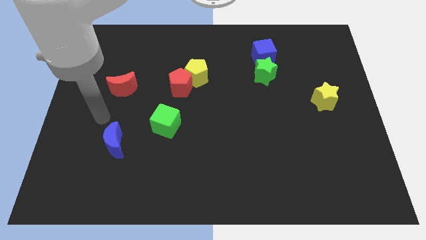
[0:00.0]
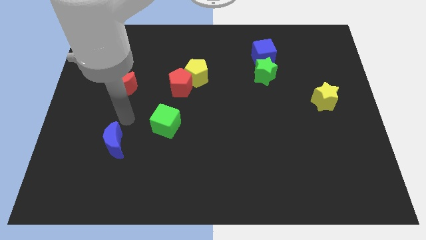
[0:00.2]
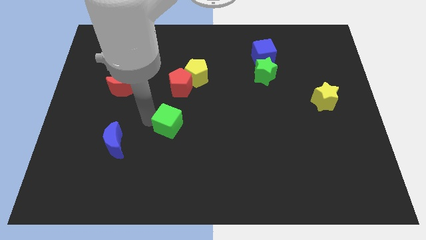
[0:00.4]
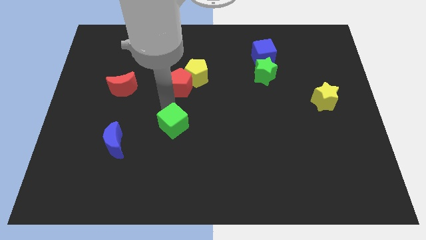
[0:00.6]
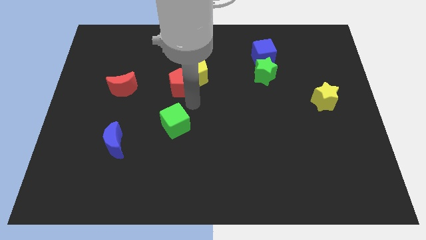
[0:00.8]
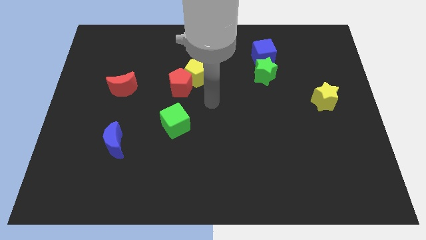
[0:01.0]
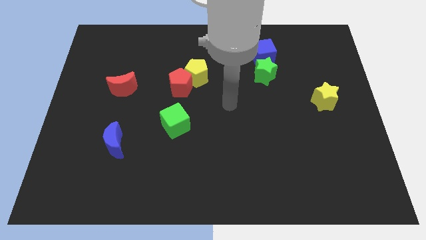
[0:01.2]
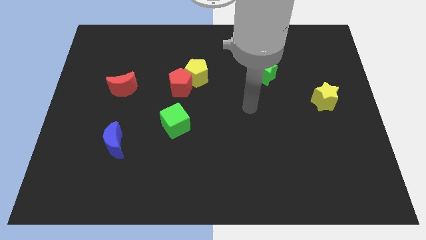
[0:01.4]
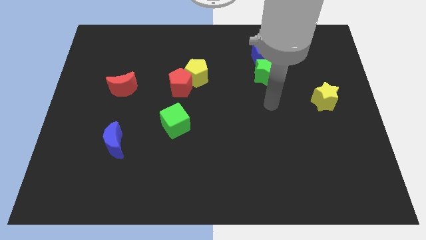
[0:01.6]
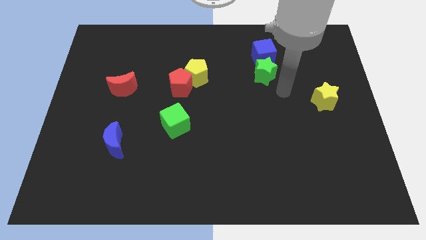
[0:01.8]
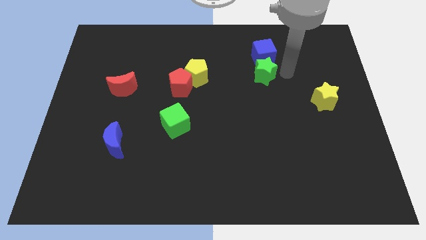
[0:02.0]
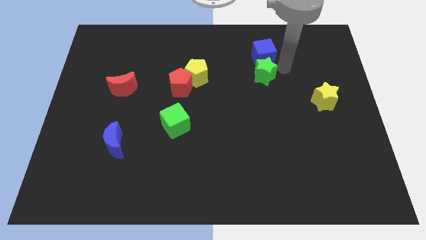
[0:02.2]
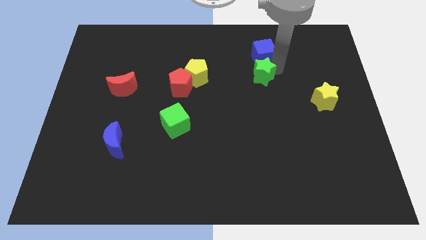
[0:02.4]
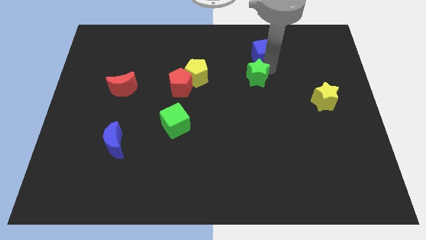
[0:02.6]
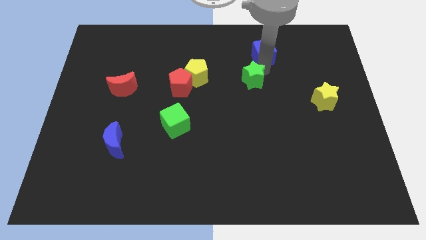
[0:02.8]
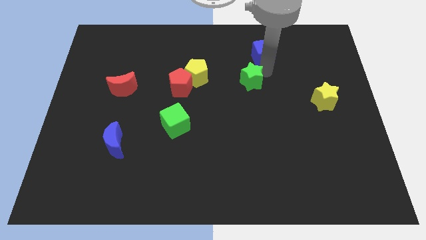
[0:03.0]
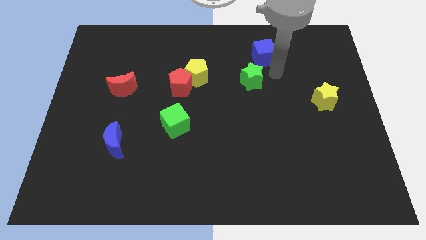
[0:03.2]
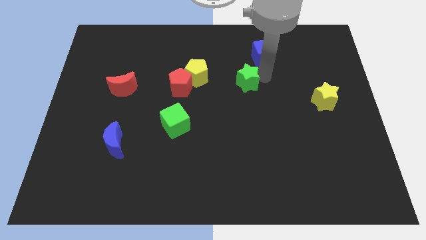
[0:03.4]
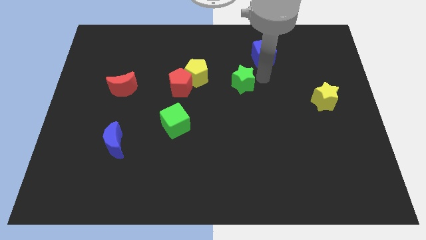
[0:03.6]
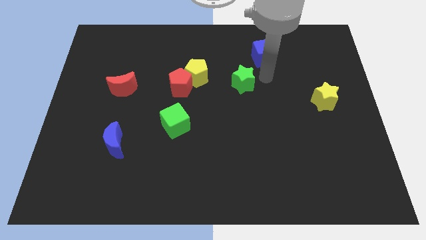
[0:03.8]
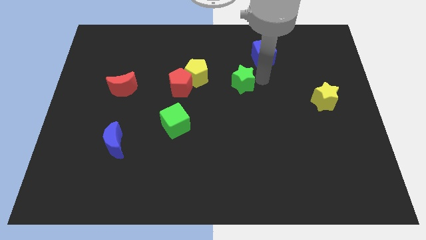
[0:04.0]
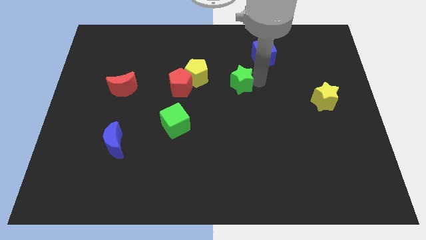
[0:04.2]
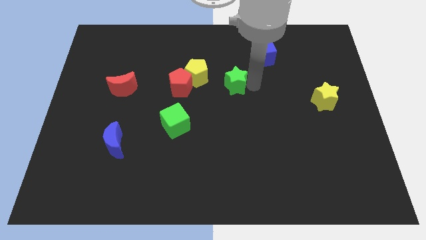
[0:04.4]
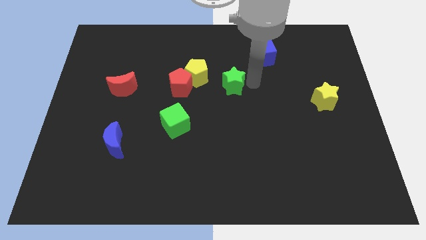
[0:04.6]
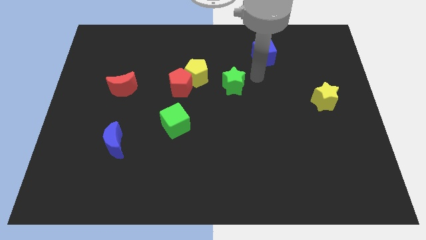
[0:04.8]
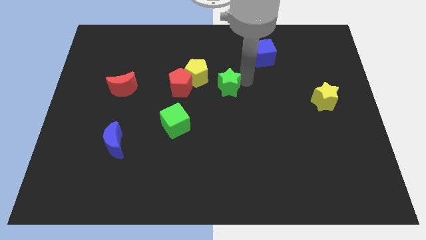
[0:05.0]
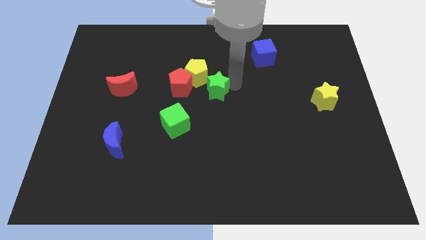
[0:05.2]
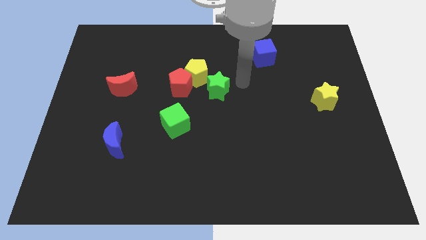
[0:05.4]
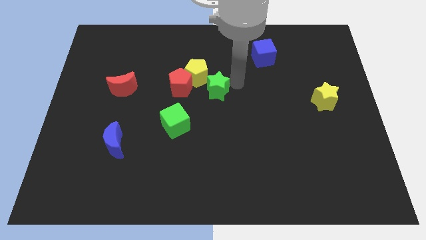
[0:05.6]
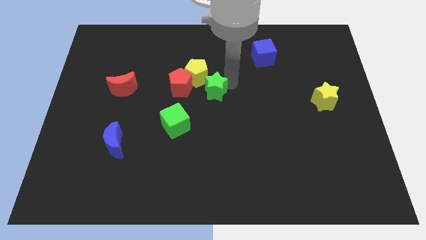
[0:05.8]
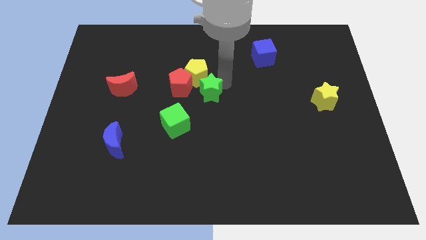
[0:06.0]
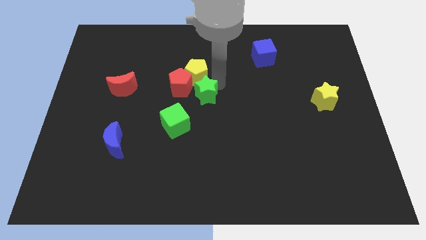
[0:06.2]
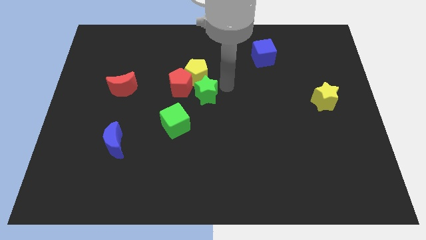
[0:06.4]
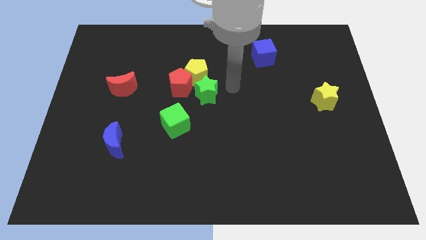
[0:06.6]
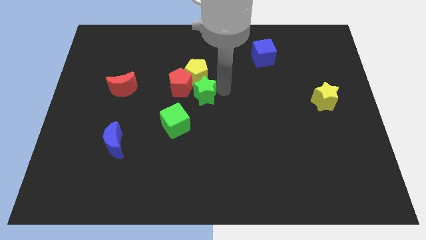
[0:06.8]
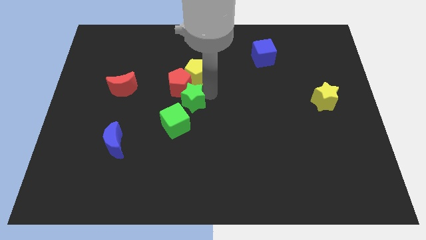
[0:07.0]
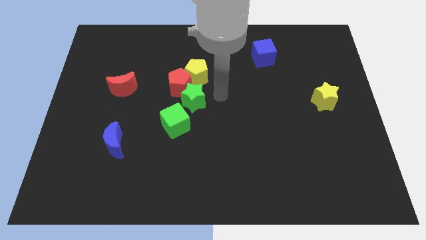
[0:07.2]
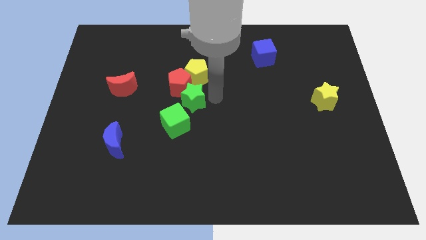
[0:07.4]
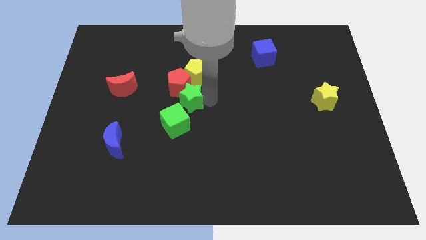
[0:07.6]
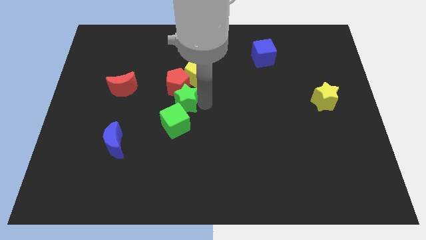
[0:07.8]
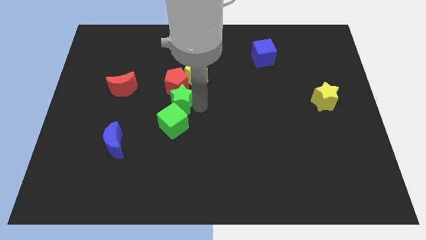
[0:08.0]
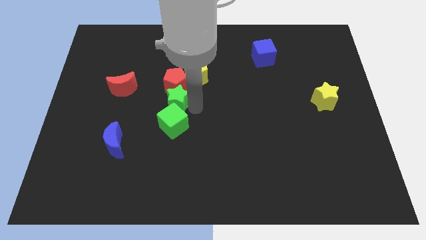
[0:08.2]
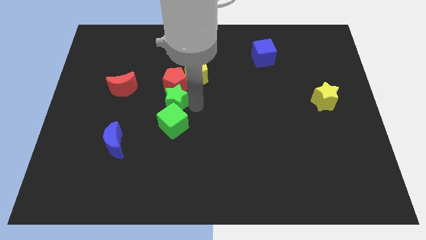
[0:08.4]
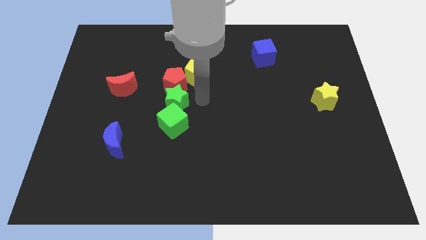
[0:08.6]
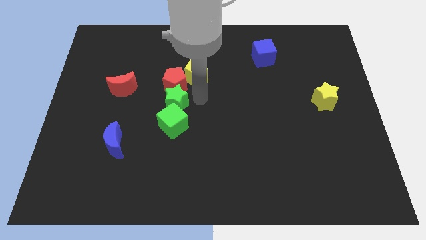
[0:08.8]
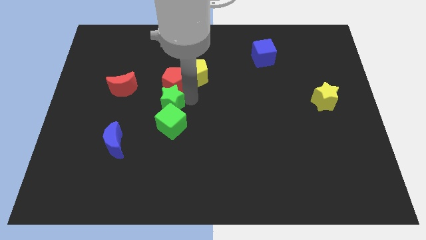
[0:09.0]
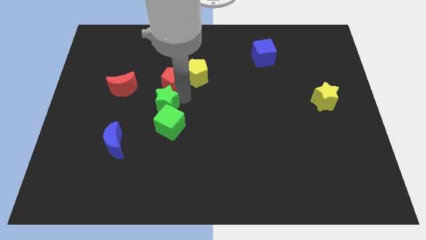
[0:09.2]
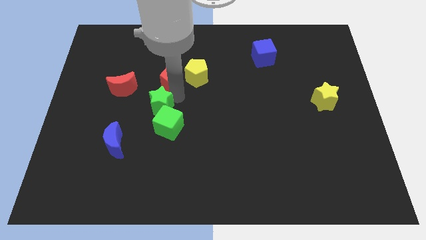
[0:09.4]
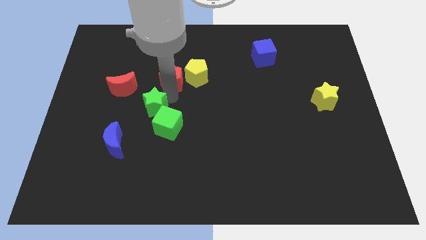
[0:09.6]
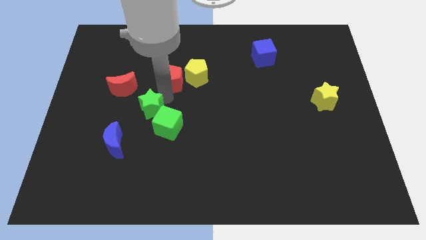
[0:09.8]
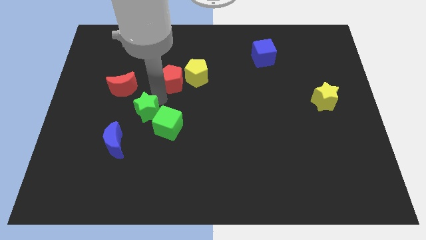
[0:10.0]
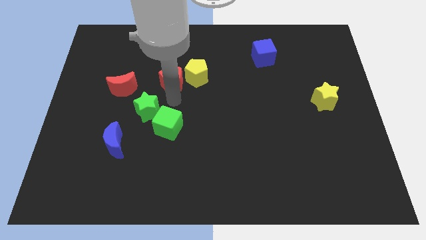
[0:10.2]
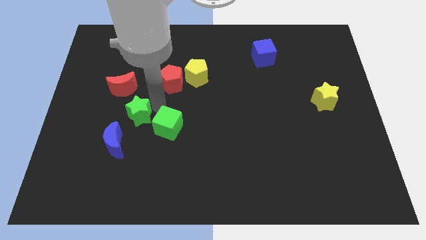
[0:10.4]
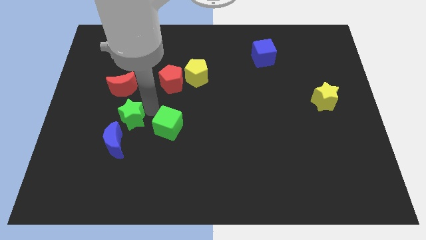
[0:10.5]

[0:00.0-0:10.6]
put the green star to the bottom of the red moon

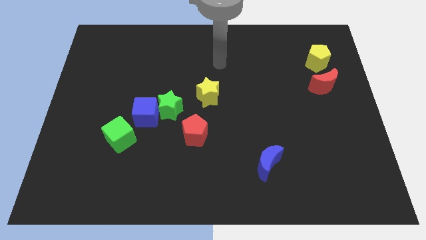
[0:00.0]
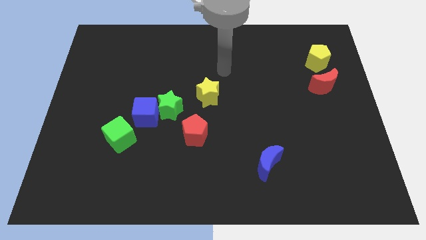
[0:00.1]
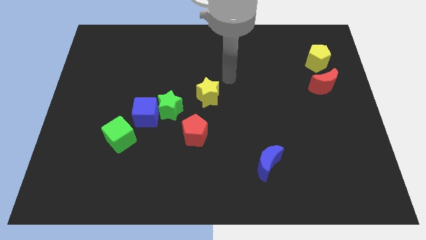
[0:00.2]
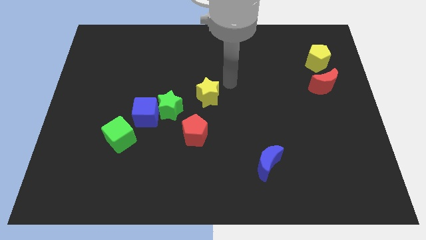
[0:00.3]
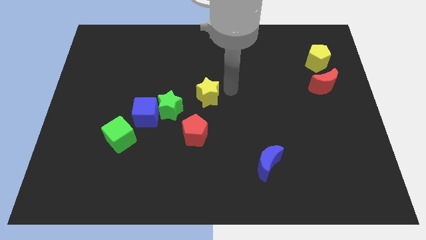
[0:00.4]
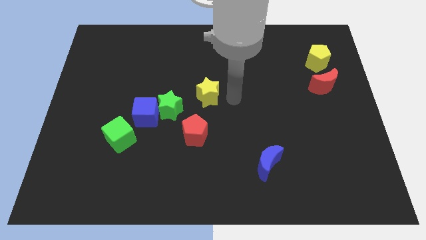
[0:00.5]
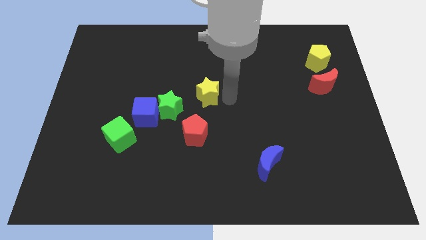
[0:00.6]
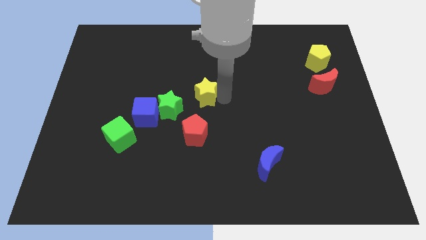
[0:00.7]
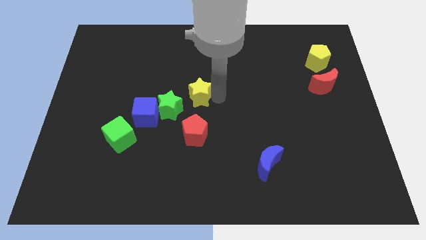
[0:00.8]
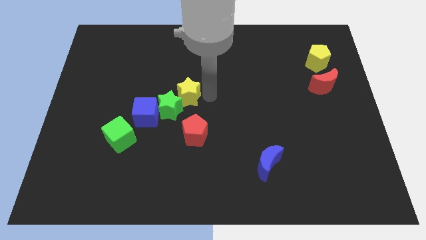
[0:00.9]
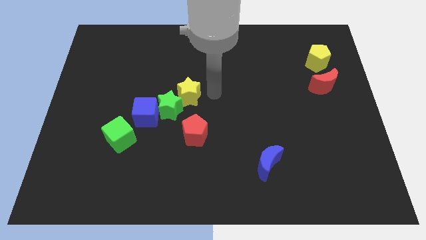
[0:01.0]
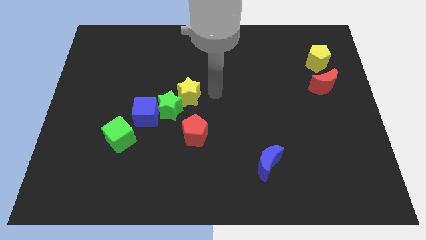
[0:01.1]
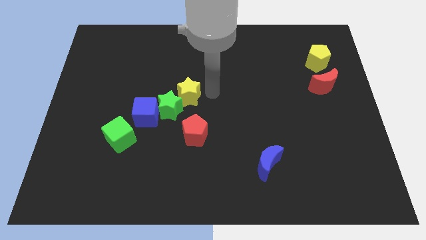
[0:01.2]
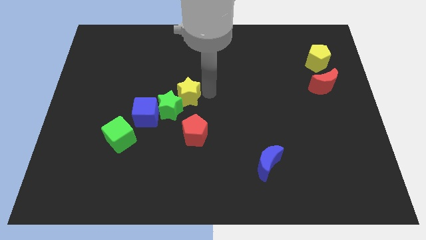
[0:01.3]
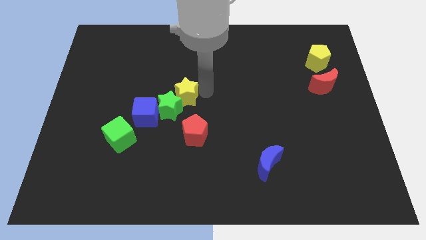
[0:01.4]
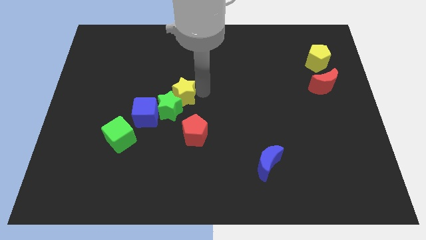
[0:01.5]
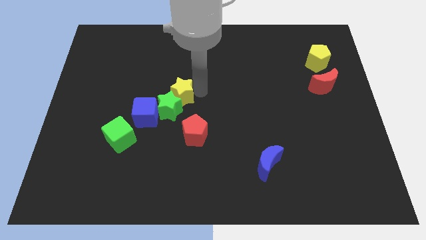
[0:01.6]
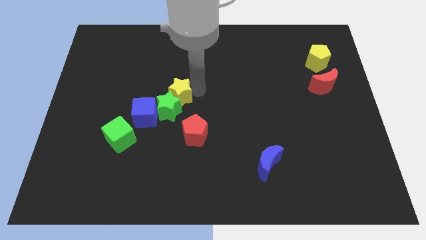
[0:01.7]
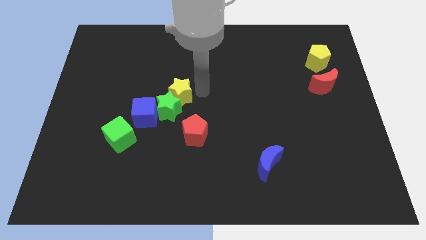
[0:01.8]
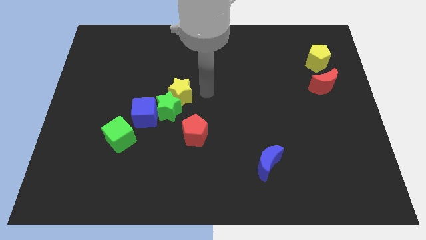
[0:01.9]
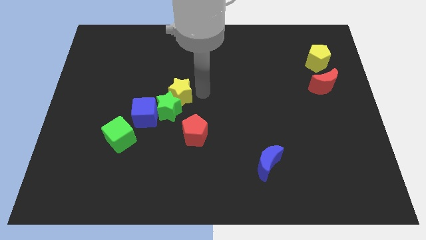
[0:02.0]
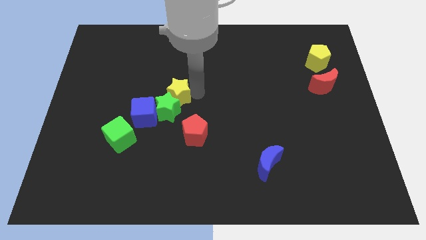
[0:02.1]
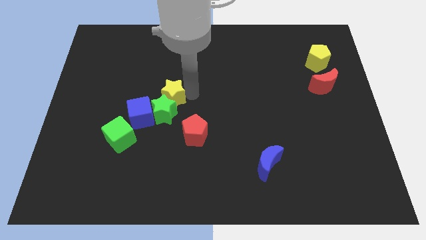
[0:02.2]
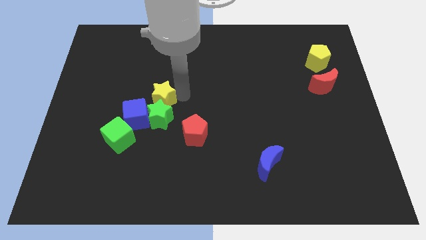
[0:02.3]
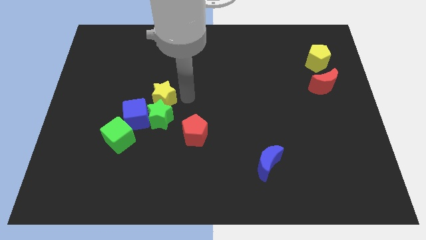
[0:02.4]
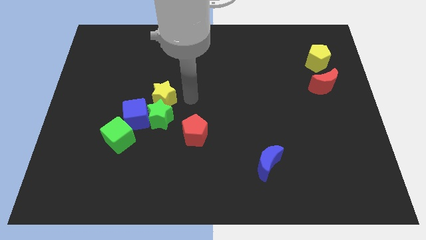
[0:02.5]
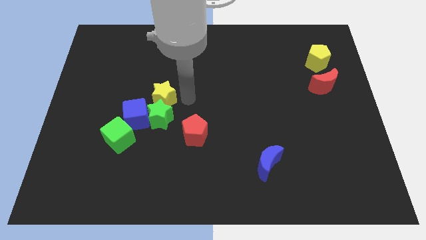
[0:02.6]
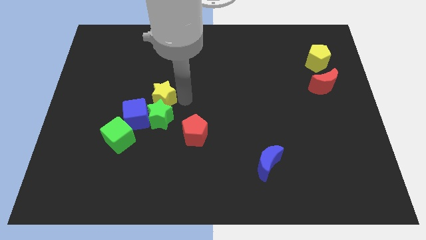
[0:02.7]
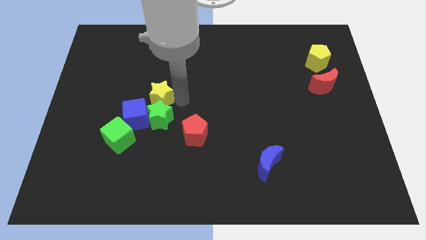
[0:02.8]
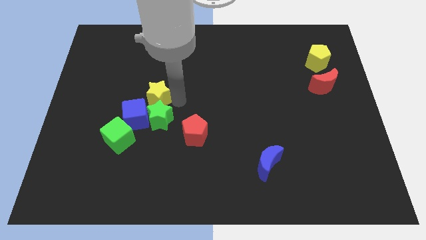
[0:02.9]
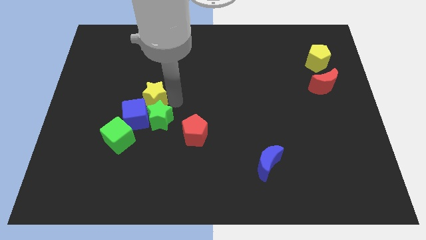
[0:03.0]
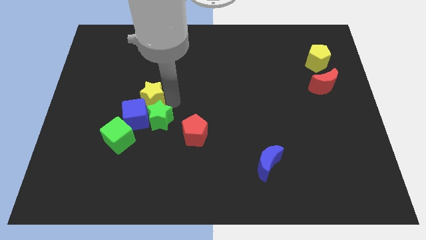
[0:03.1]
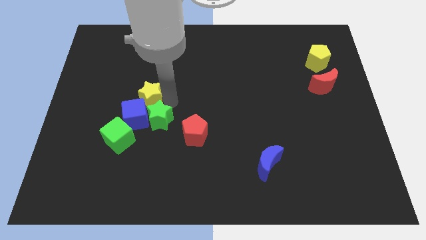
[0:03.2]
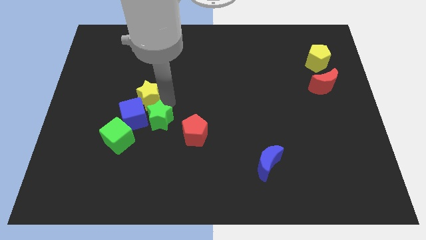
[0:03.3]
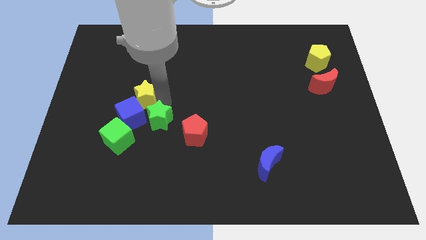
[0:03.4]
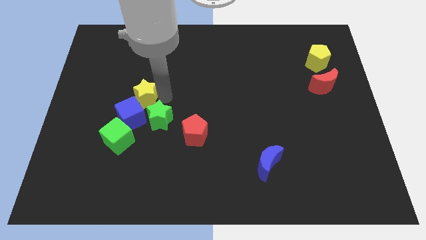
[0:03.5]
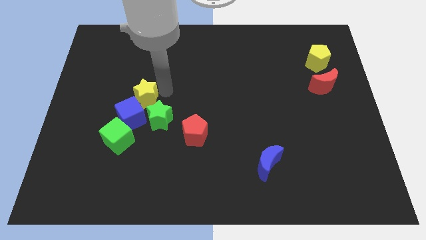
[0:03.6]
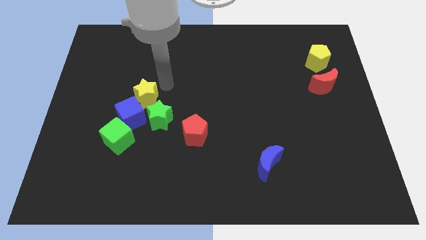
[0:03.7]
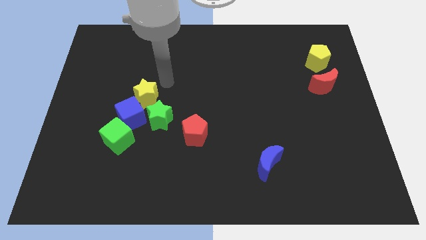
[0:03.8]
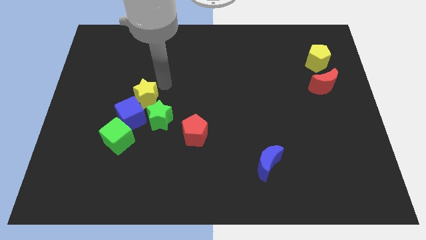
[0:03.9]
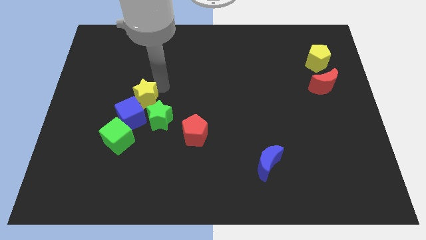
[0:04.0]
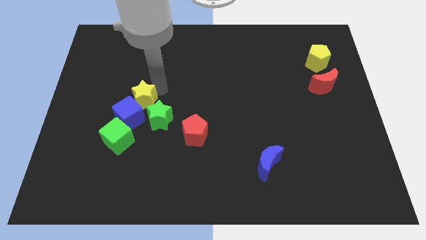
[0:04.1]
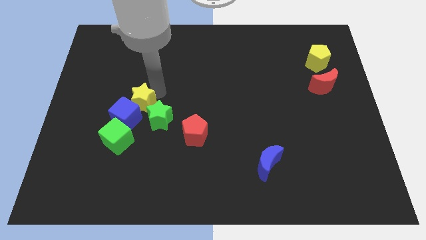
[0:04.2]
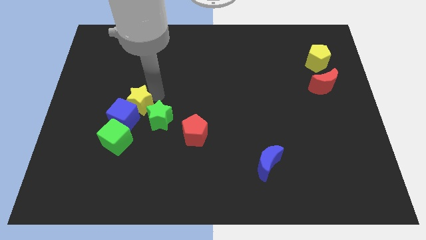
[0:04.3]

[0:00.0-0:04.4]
push the yellow star to the left side of the green star
